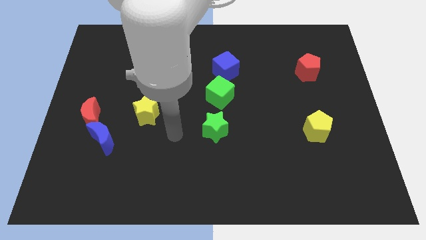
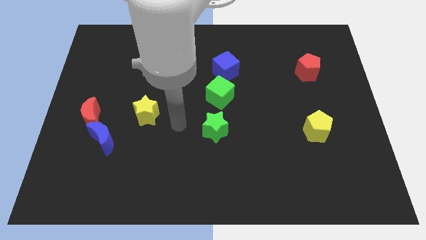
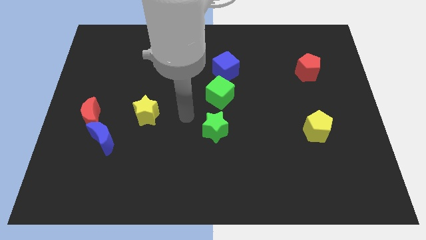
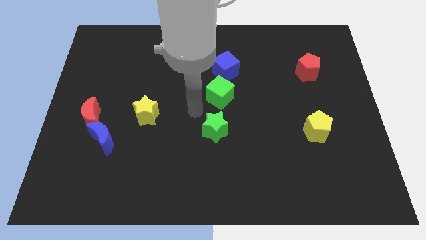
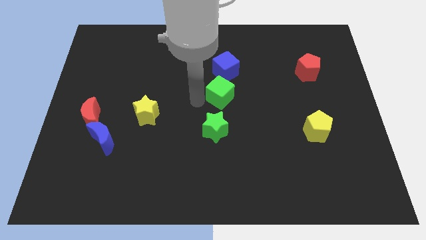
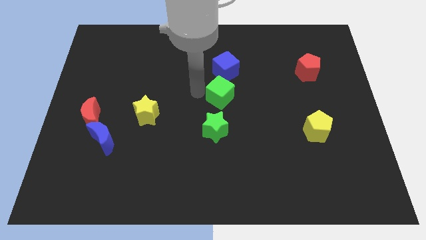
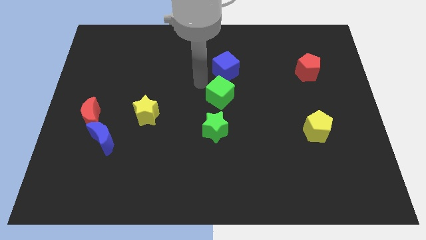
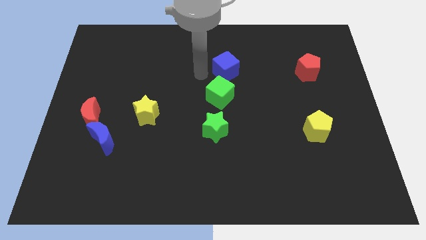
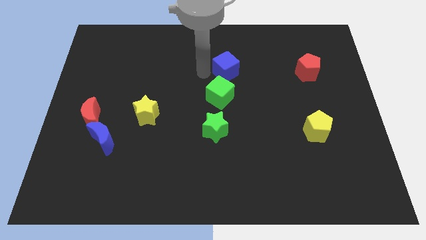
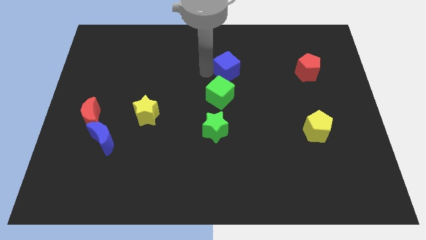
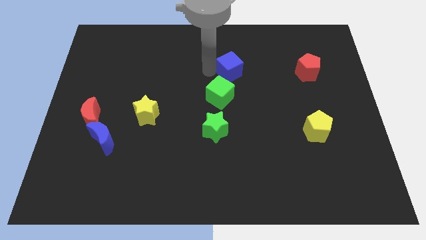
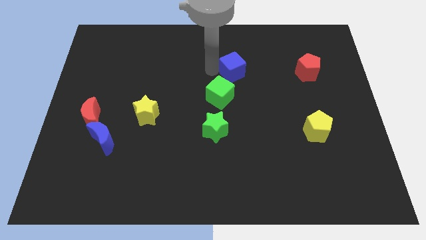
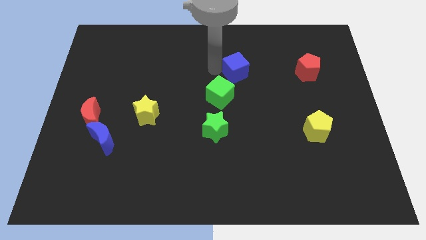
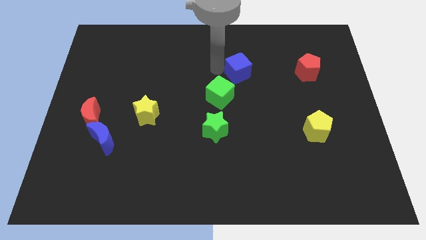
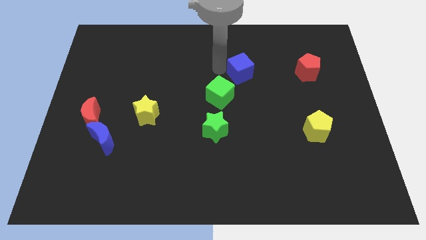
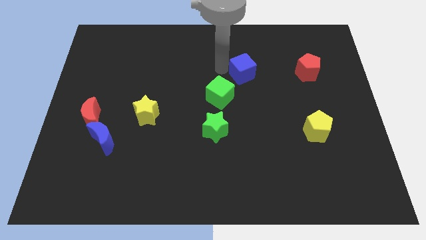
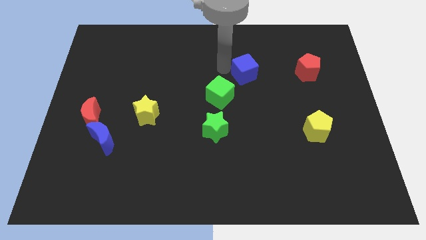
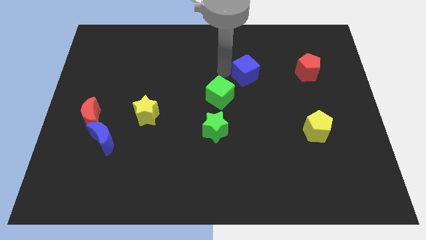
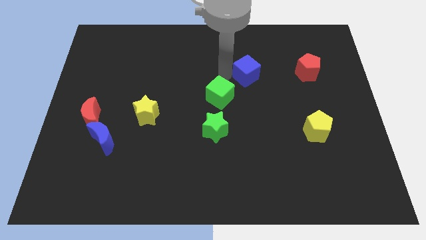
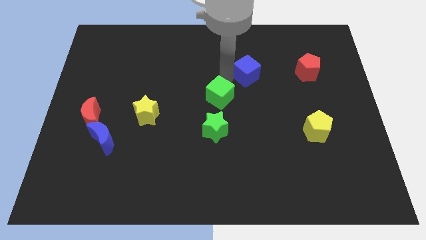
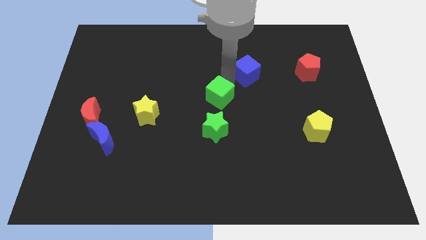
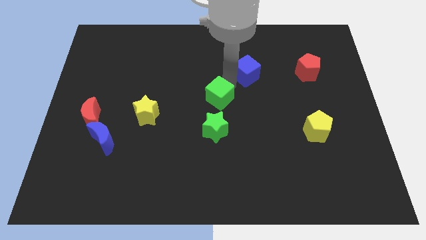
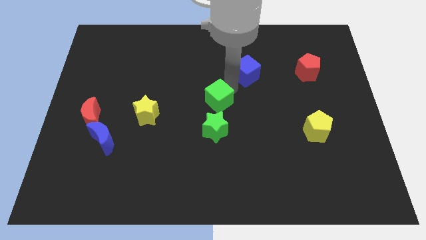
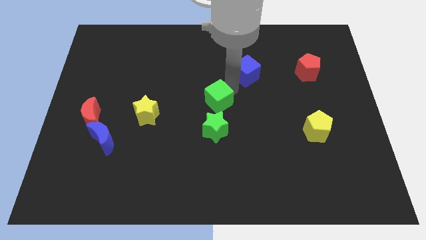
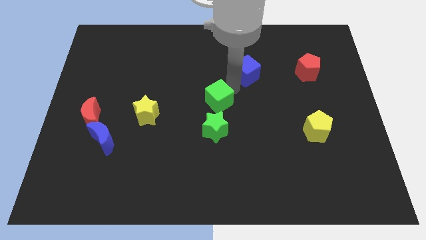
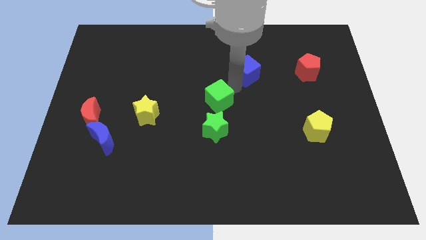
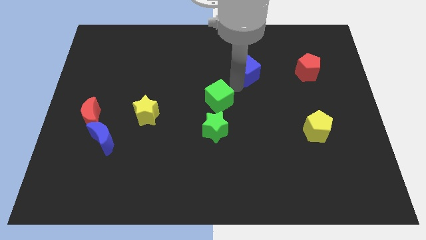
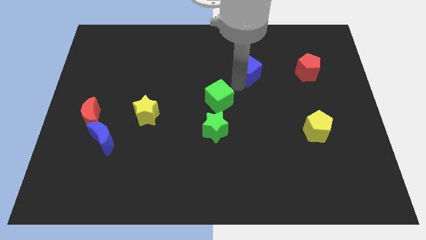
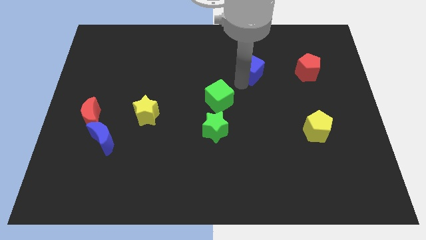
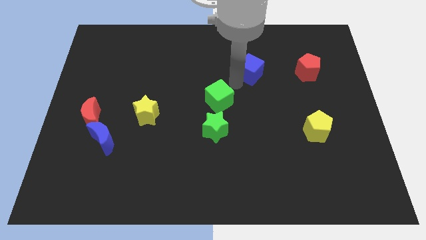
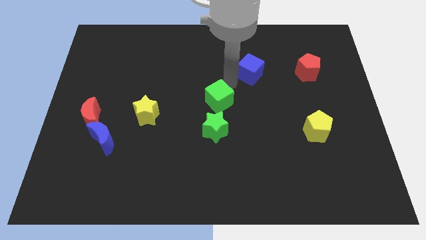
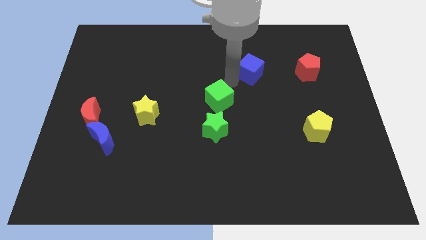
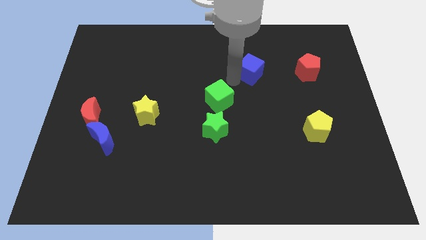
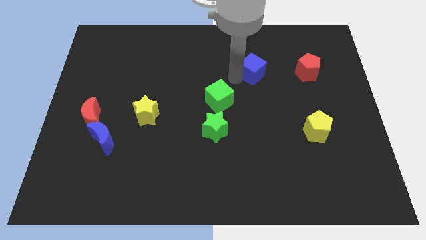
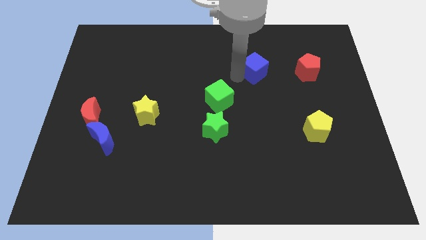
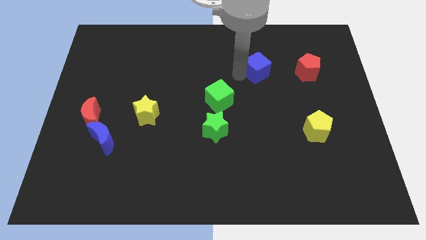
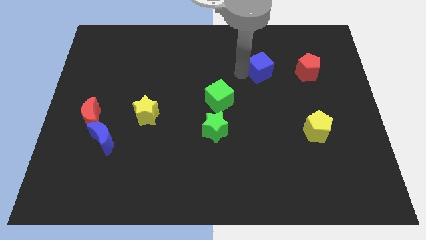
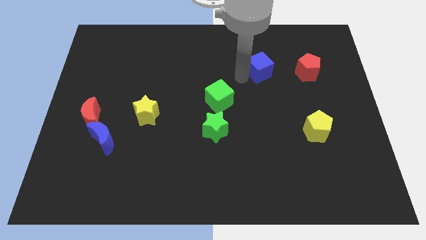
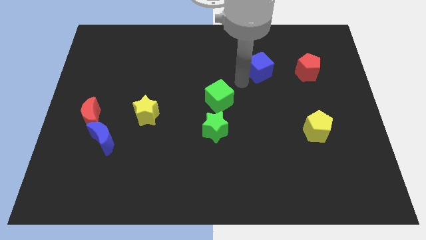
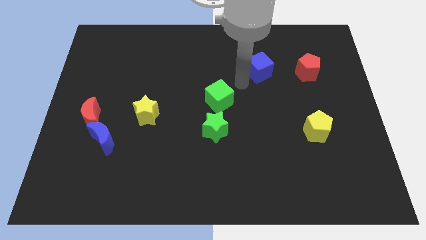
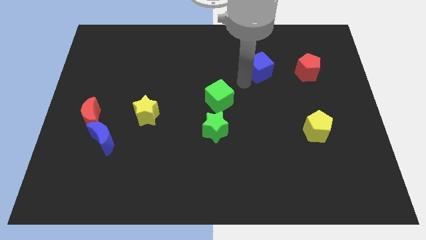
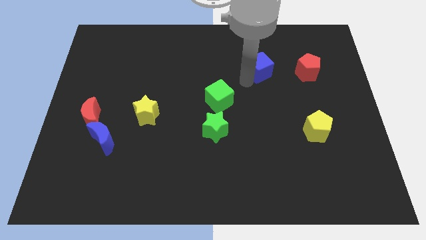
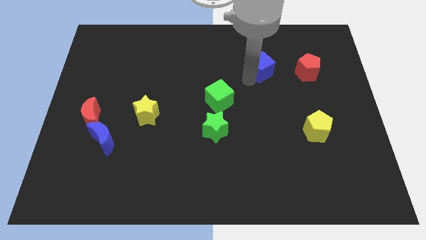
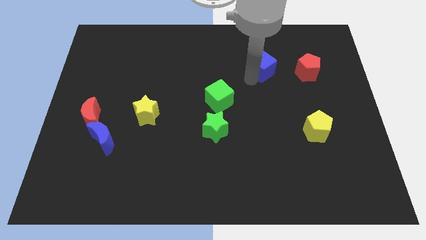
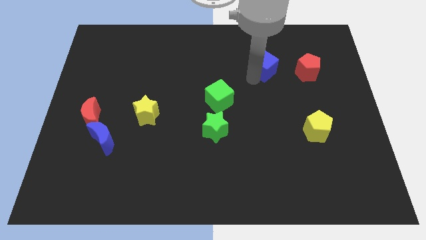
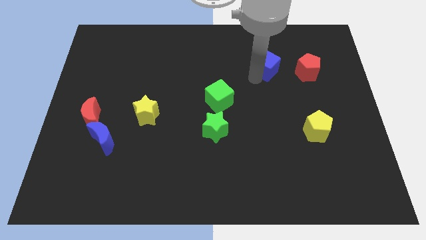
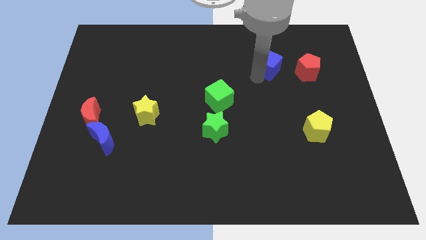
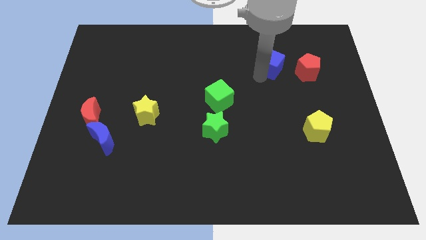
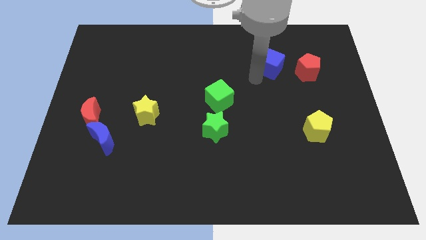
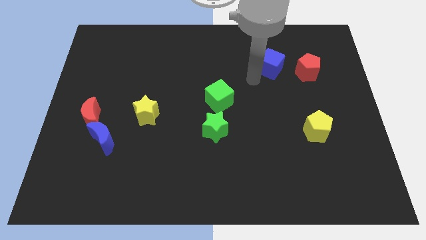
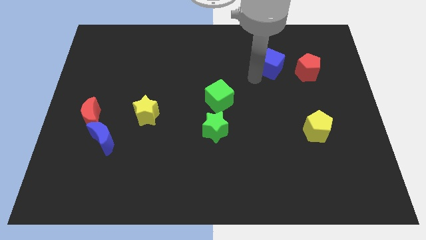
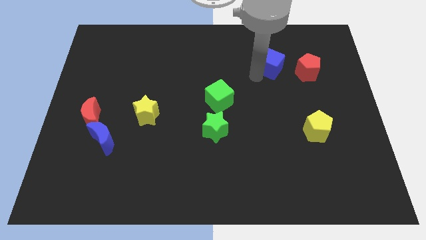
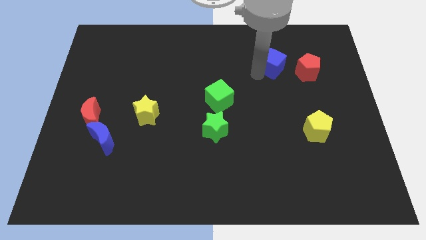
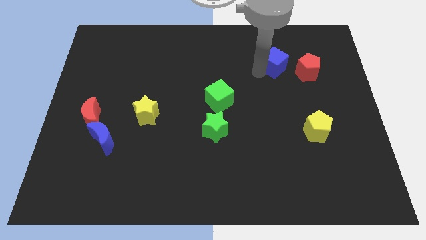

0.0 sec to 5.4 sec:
move the blue cube diagonally up and to the left of the red pentagon

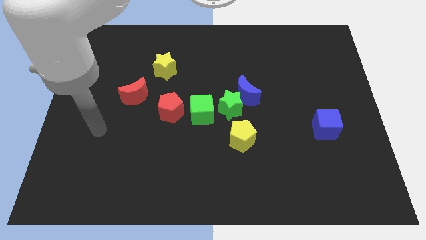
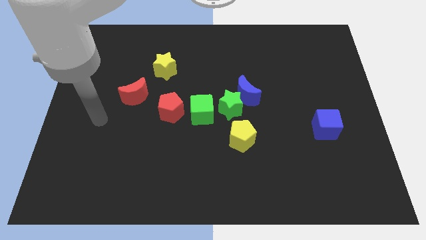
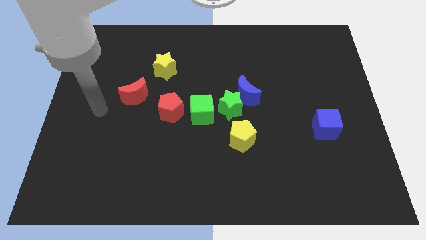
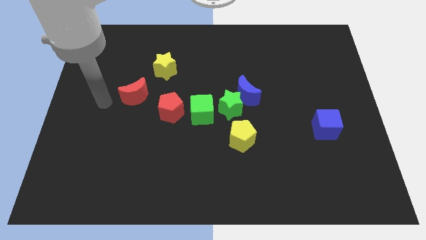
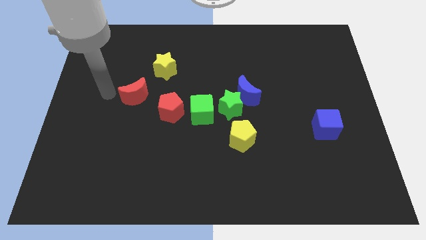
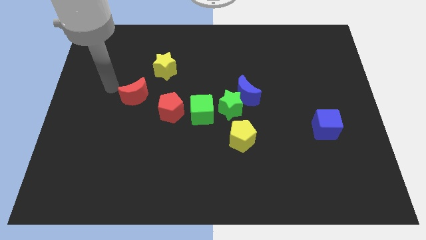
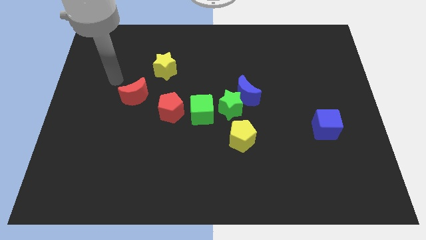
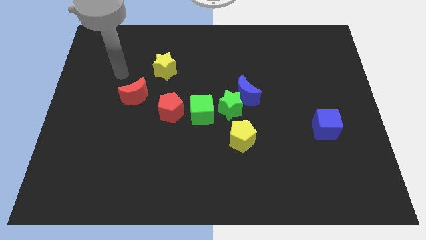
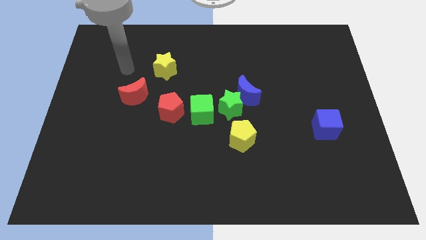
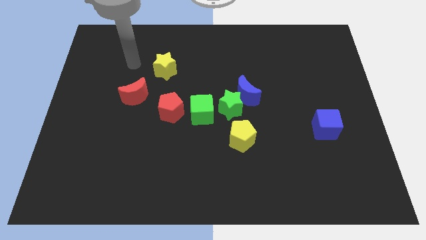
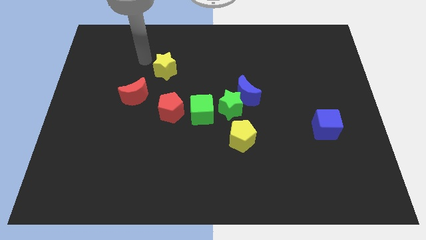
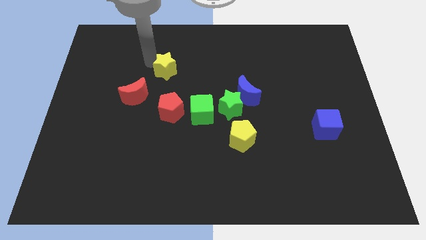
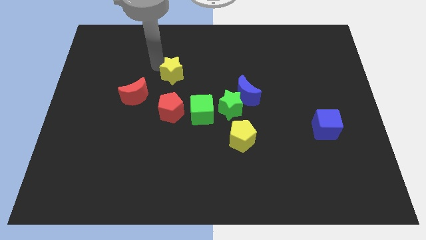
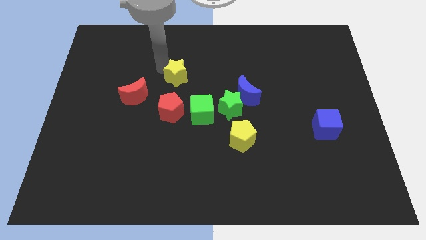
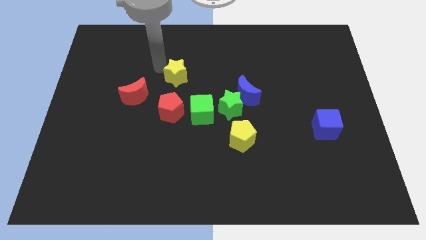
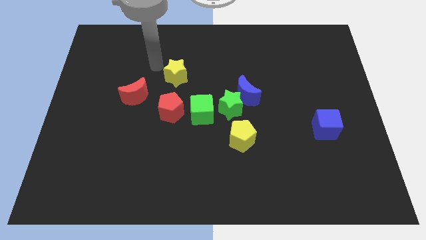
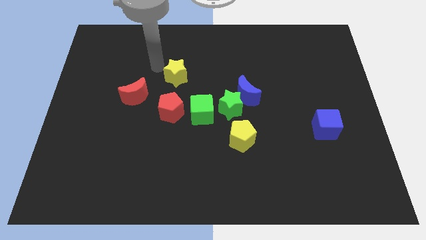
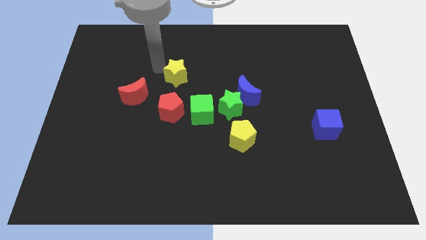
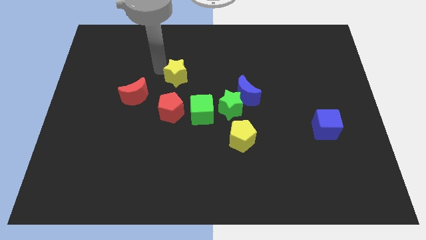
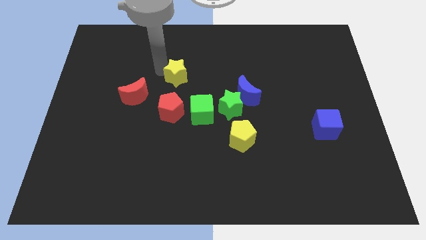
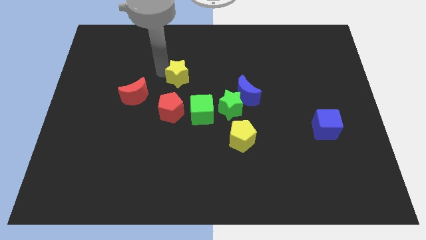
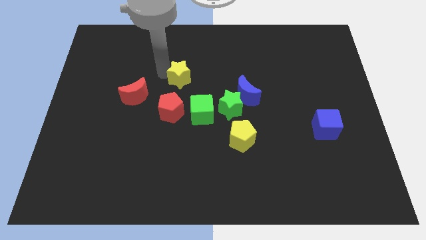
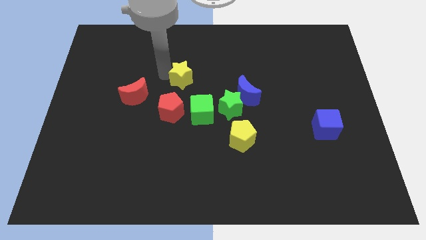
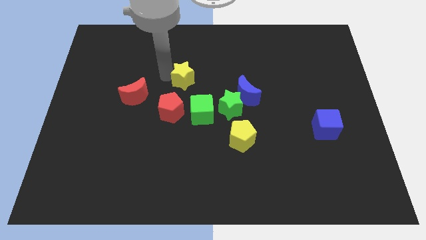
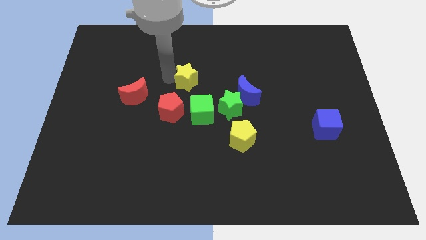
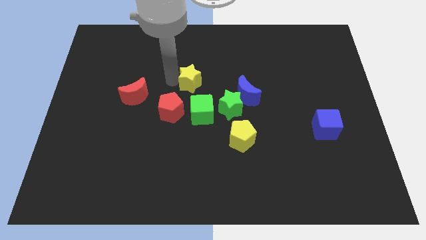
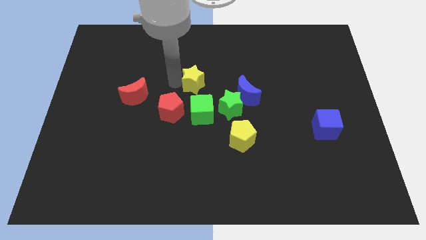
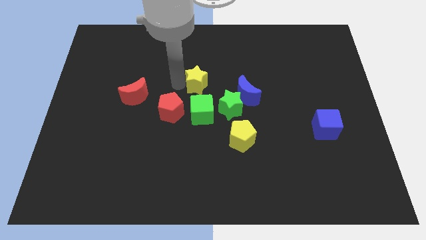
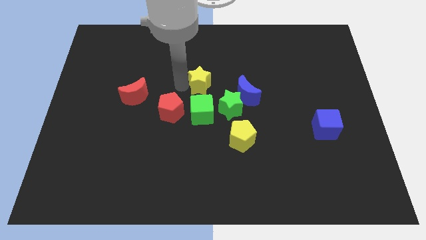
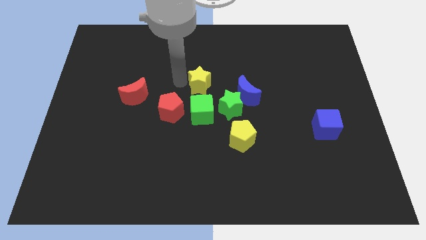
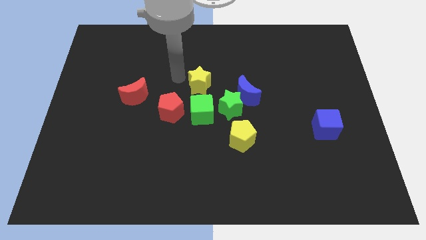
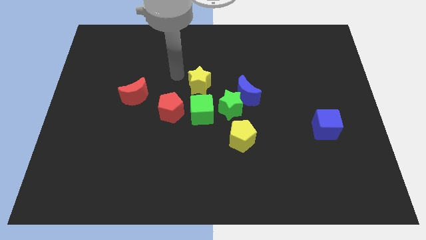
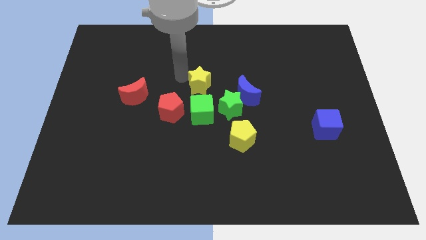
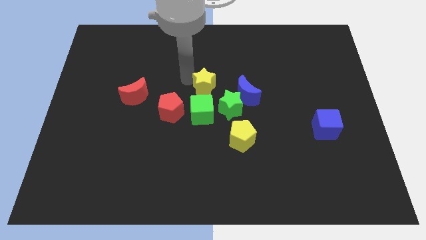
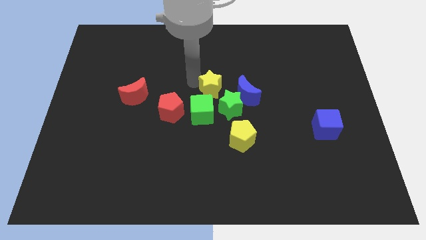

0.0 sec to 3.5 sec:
move the yellow star diagonally up and to the right of the green cube
